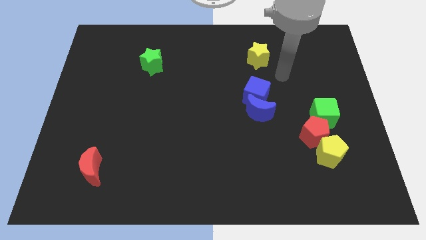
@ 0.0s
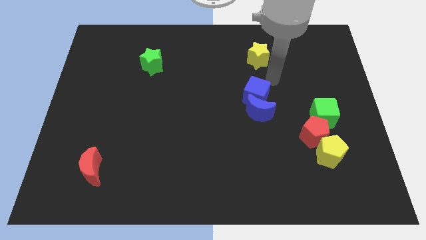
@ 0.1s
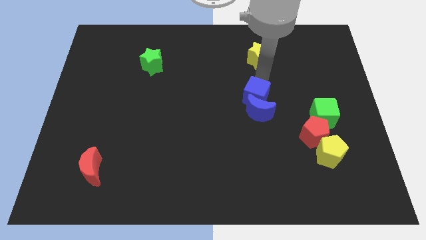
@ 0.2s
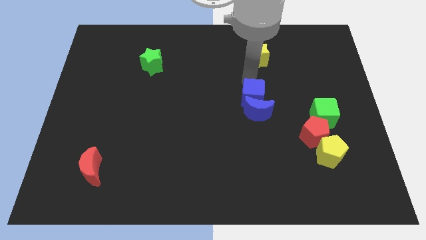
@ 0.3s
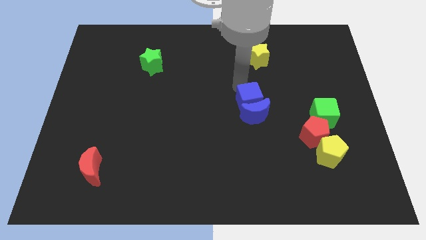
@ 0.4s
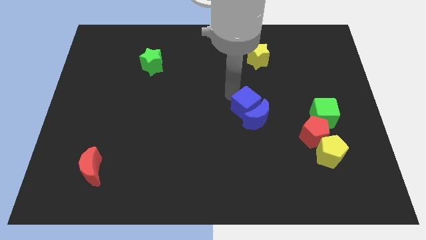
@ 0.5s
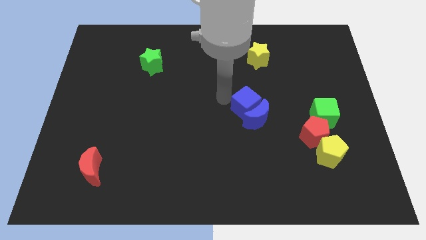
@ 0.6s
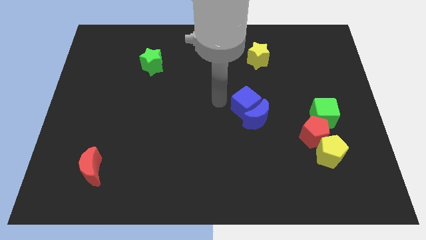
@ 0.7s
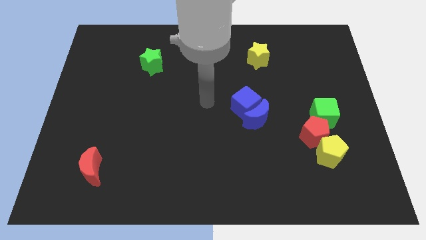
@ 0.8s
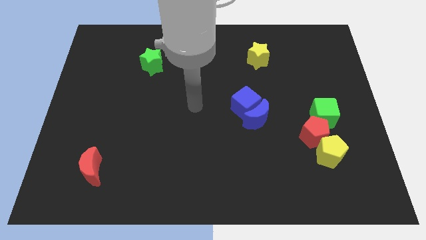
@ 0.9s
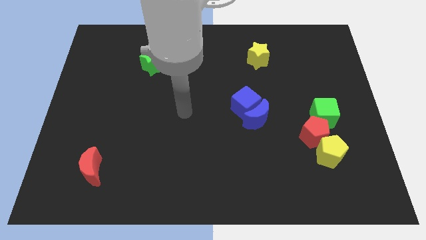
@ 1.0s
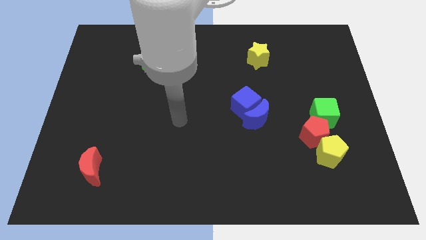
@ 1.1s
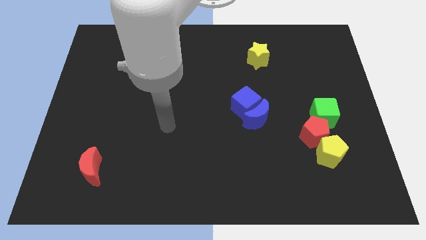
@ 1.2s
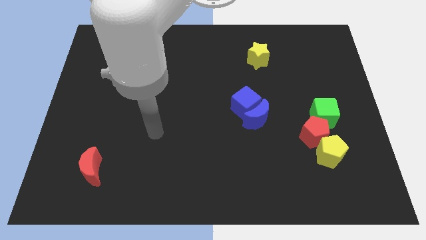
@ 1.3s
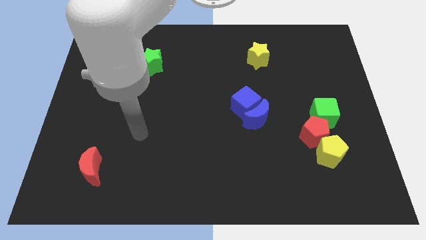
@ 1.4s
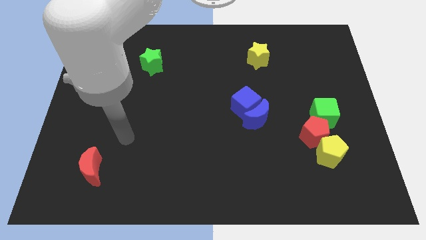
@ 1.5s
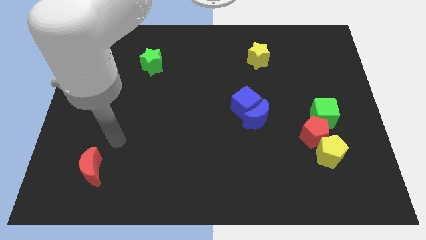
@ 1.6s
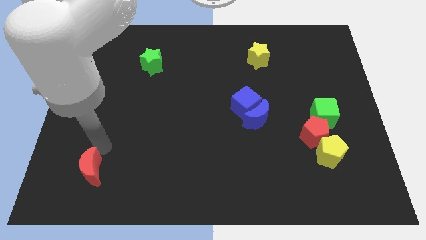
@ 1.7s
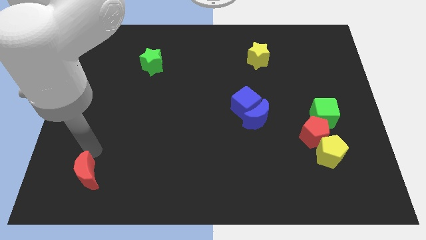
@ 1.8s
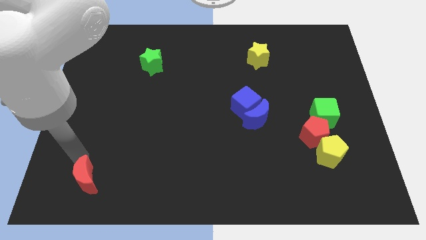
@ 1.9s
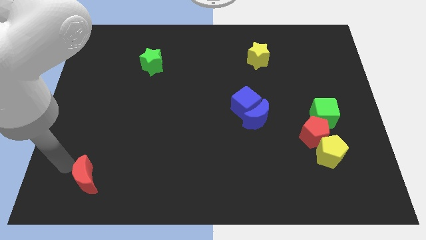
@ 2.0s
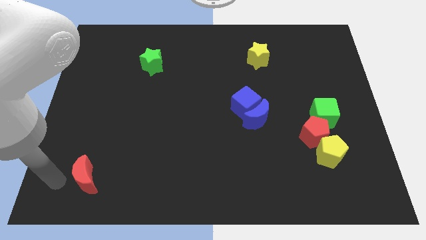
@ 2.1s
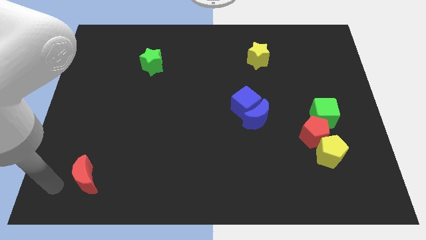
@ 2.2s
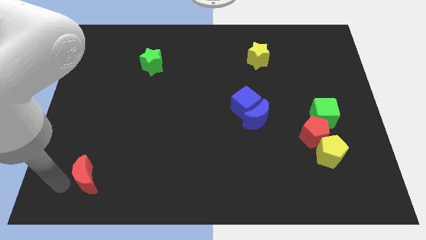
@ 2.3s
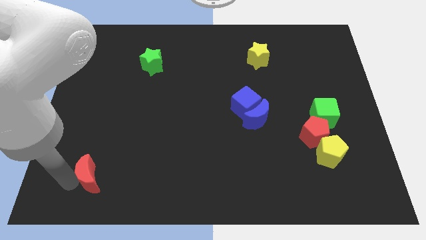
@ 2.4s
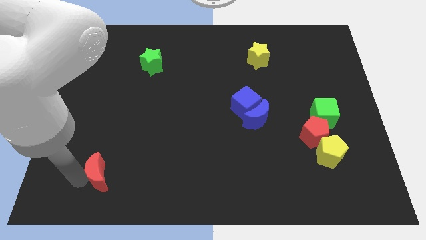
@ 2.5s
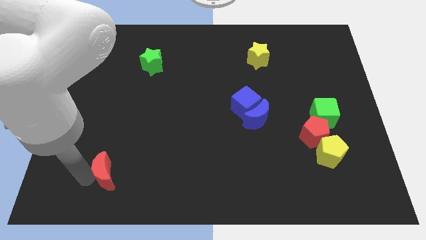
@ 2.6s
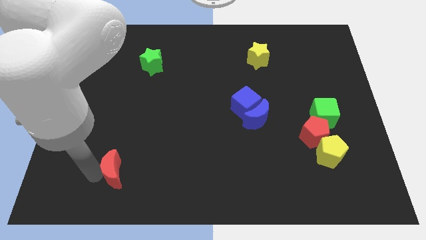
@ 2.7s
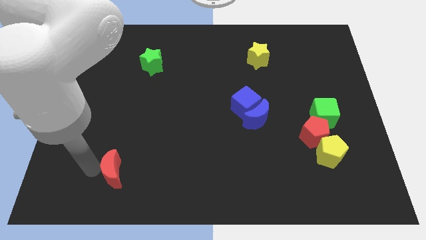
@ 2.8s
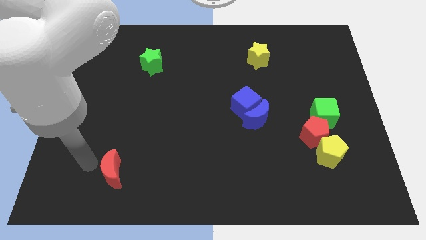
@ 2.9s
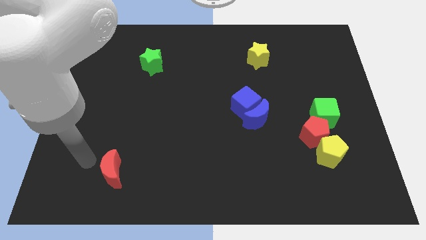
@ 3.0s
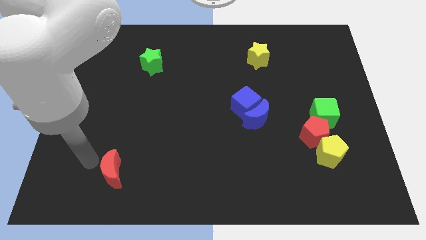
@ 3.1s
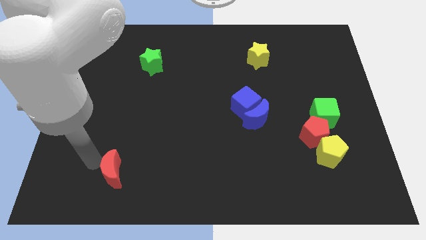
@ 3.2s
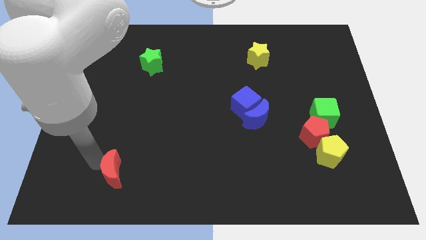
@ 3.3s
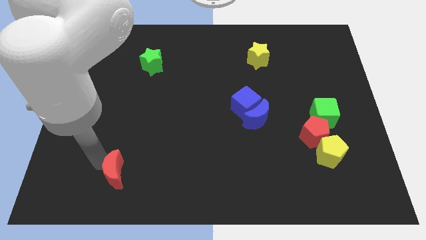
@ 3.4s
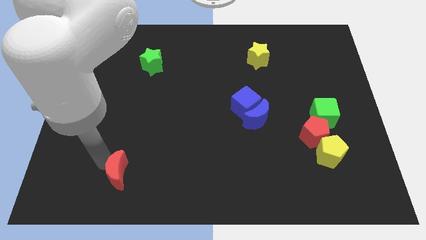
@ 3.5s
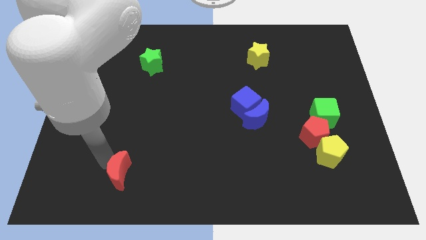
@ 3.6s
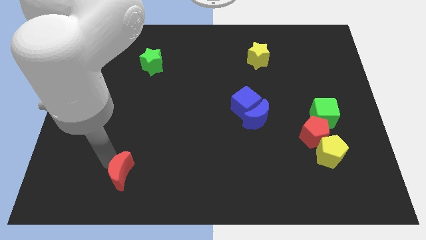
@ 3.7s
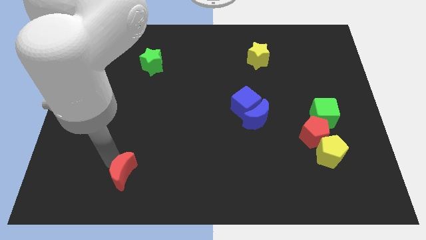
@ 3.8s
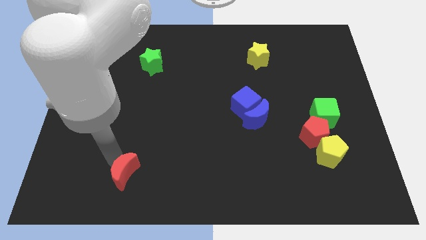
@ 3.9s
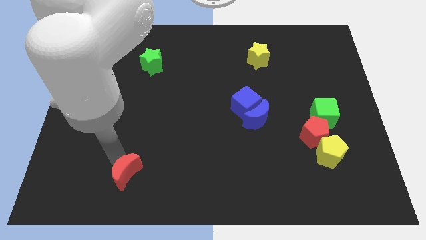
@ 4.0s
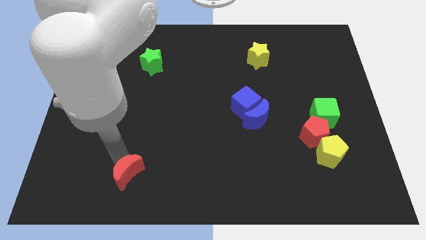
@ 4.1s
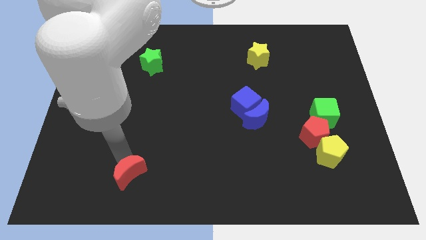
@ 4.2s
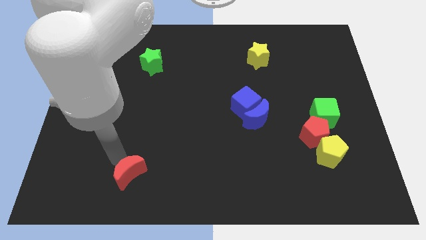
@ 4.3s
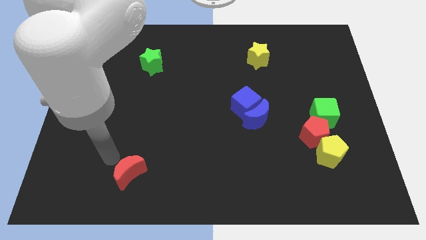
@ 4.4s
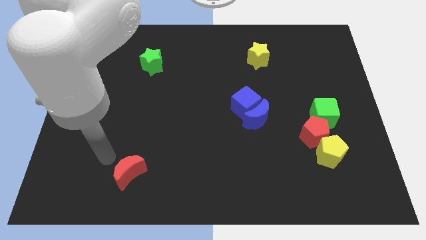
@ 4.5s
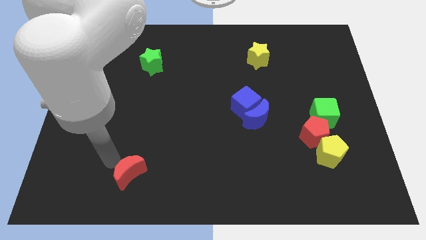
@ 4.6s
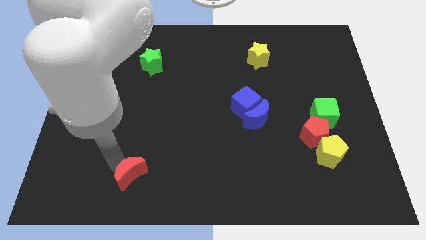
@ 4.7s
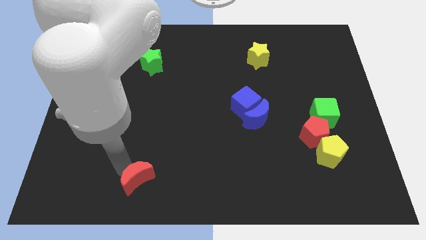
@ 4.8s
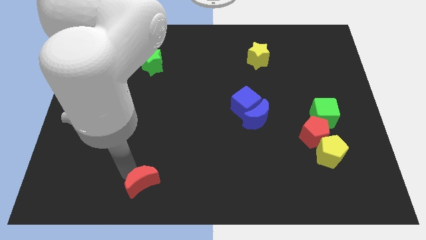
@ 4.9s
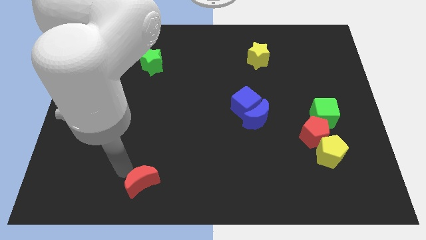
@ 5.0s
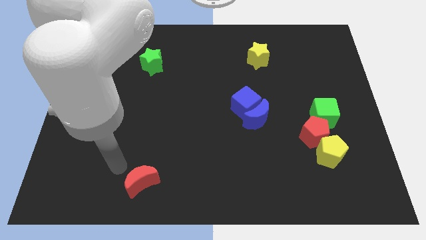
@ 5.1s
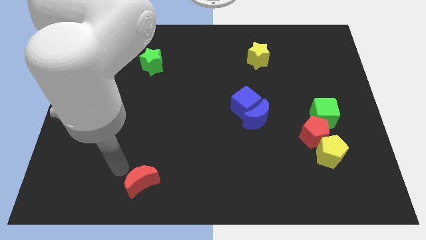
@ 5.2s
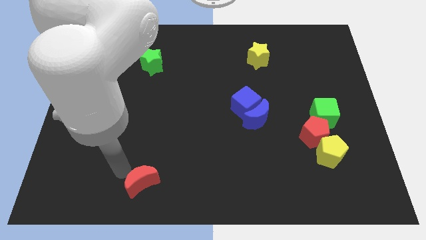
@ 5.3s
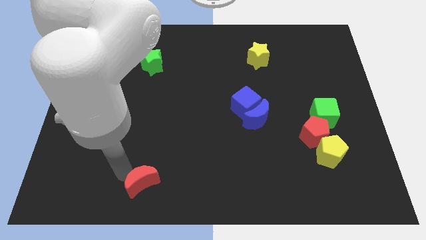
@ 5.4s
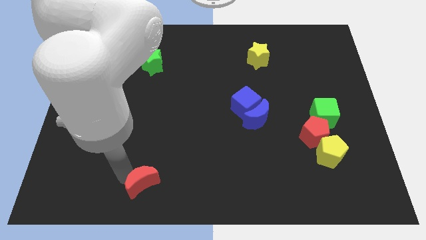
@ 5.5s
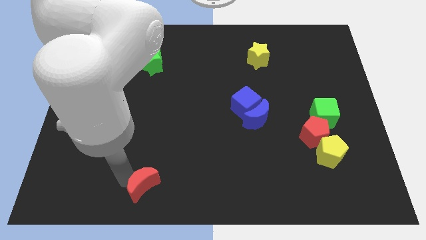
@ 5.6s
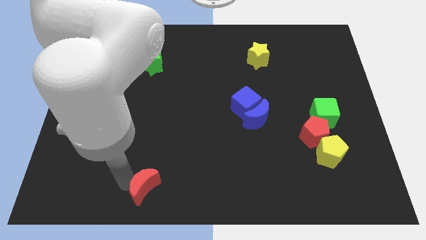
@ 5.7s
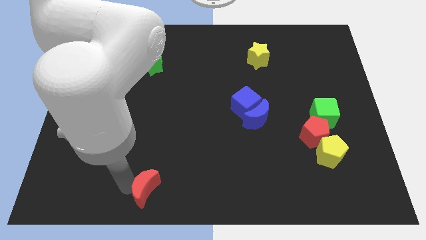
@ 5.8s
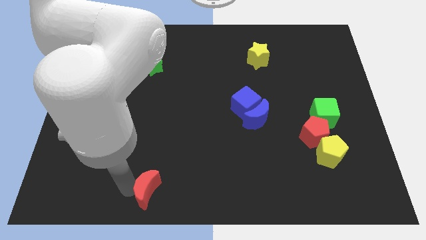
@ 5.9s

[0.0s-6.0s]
push the red moon to the bottom

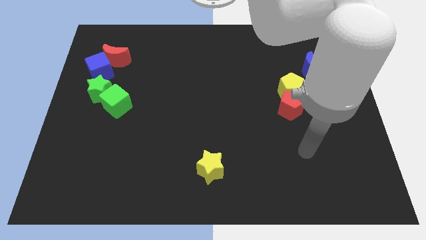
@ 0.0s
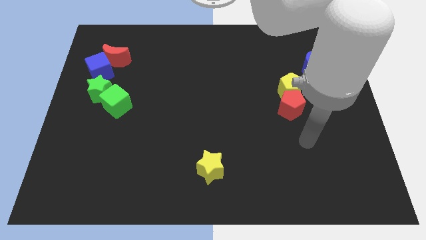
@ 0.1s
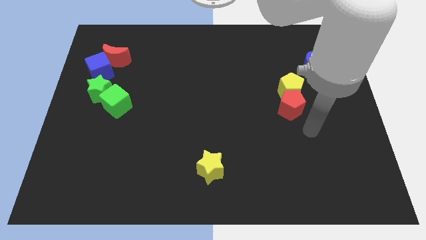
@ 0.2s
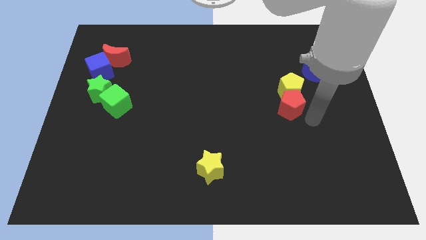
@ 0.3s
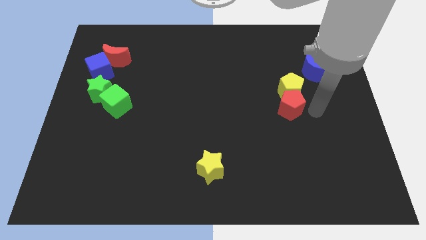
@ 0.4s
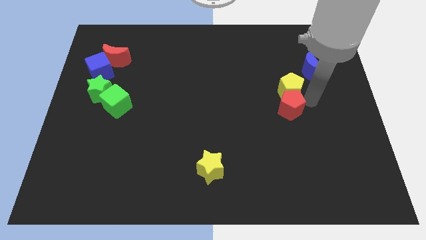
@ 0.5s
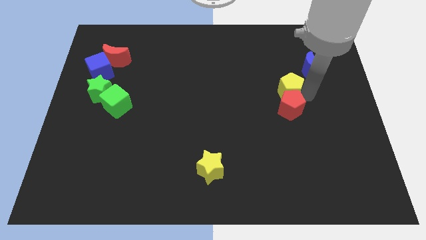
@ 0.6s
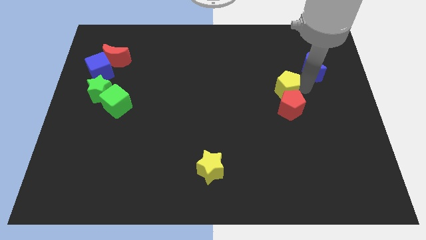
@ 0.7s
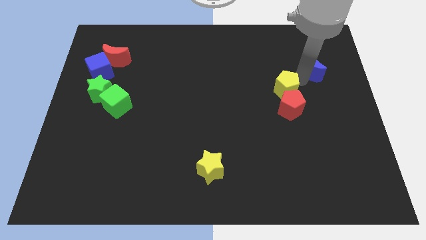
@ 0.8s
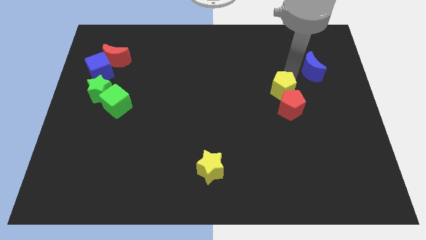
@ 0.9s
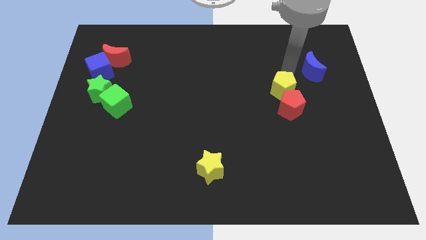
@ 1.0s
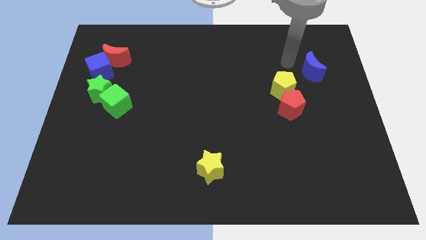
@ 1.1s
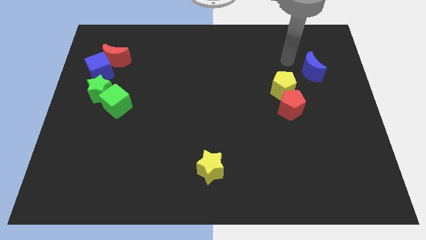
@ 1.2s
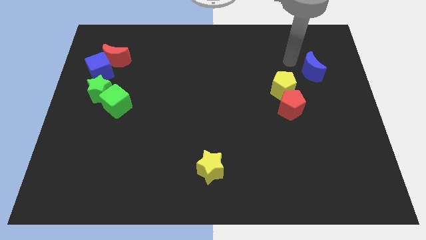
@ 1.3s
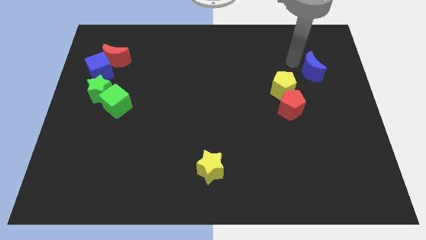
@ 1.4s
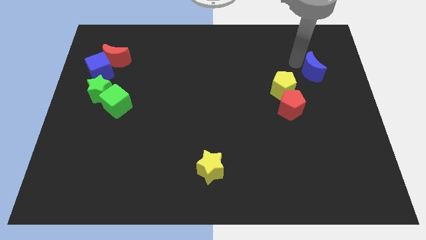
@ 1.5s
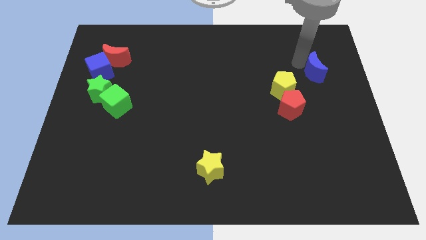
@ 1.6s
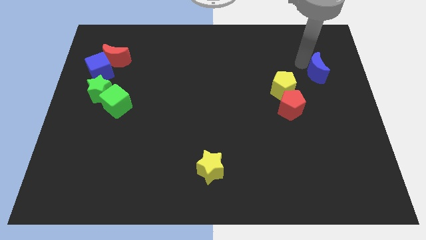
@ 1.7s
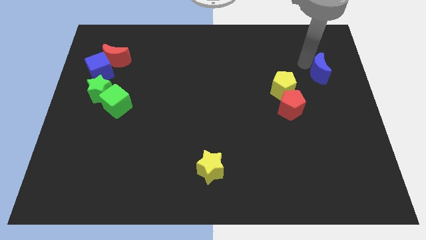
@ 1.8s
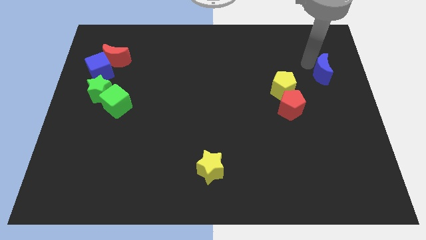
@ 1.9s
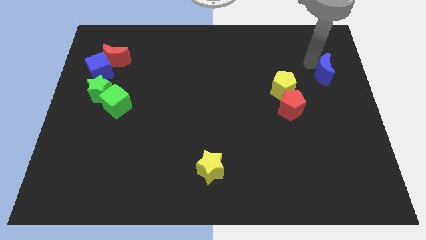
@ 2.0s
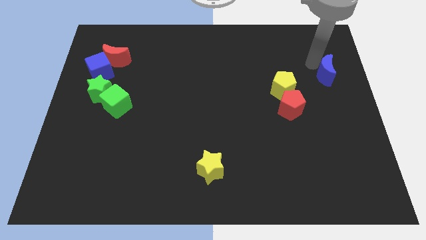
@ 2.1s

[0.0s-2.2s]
move the blue moon to the right side
